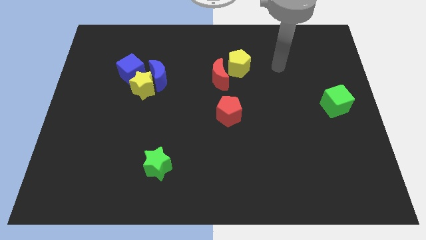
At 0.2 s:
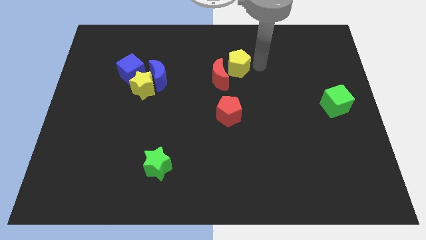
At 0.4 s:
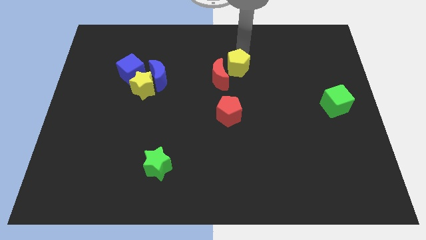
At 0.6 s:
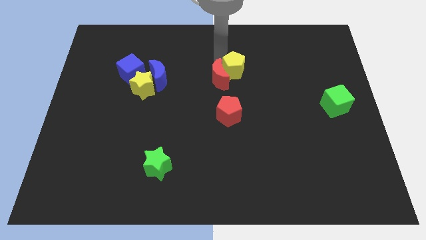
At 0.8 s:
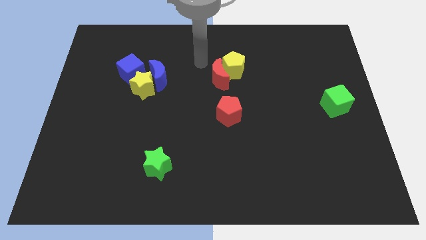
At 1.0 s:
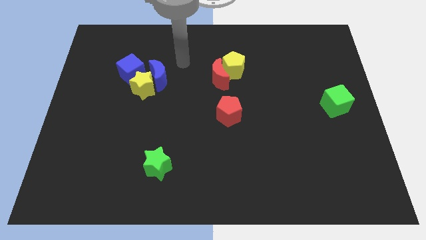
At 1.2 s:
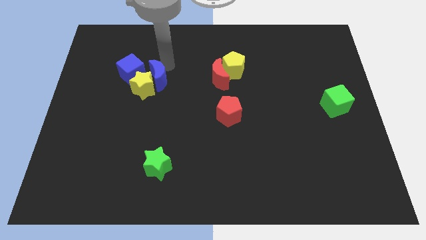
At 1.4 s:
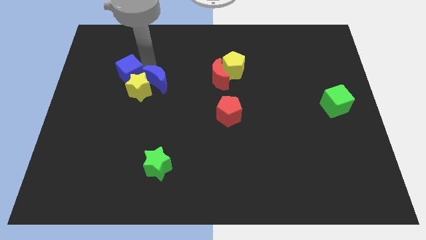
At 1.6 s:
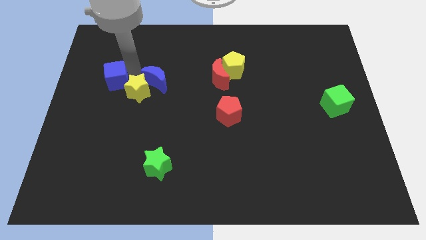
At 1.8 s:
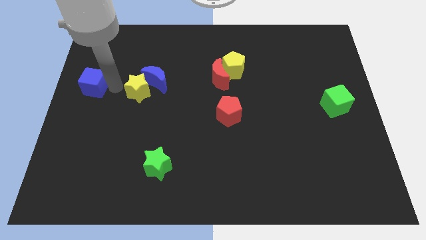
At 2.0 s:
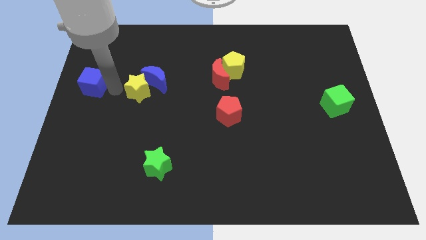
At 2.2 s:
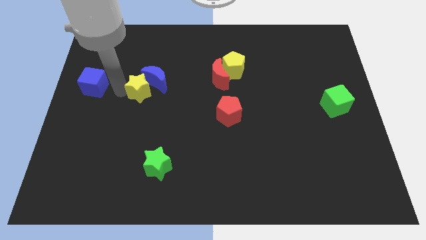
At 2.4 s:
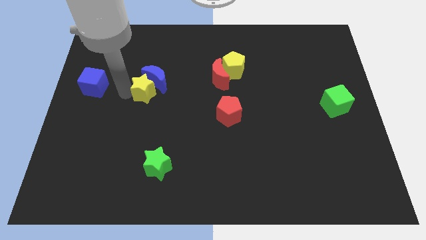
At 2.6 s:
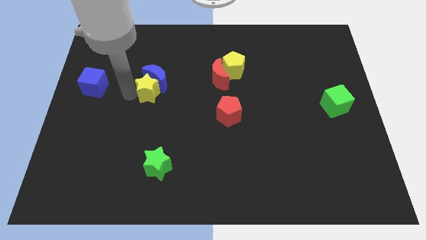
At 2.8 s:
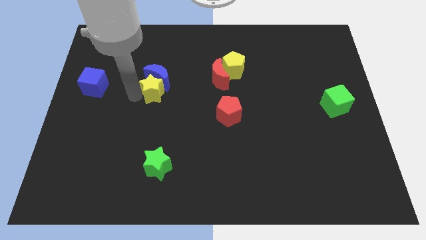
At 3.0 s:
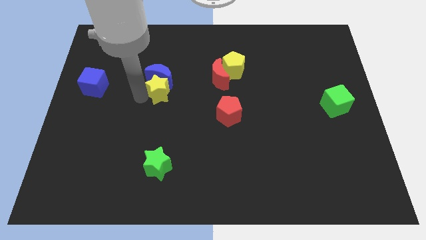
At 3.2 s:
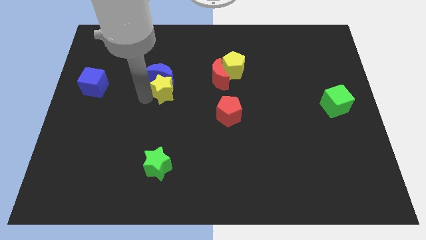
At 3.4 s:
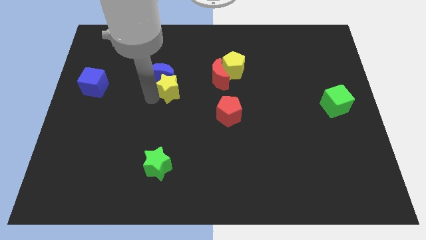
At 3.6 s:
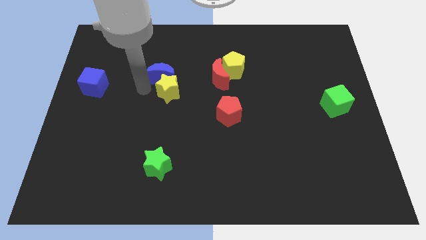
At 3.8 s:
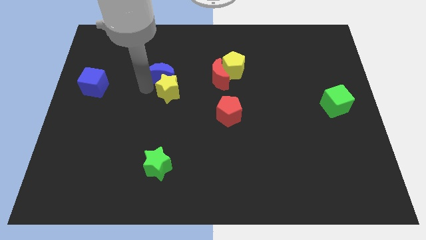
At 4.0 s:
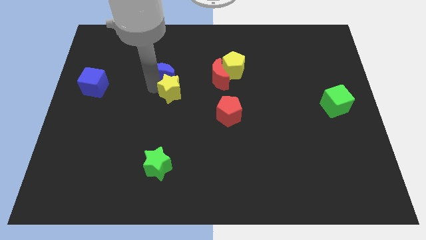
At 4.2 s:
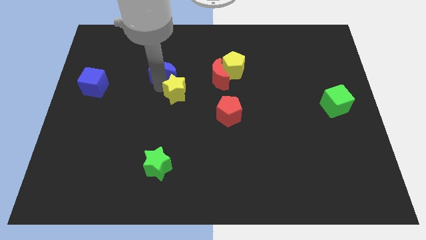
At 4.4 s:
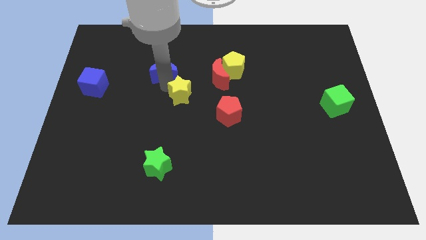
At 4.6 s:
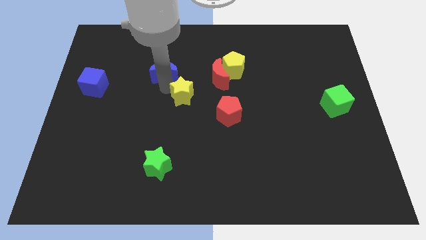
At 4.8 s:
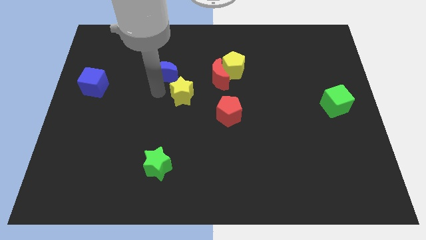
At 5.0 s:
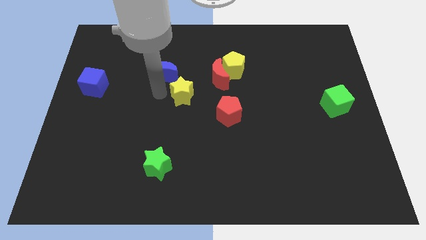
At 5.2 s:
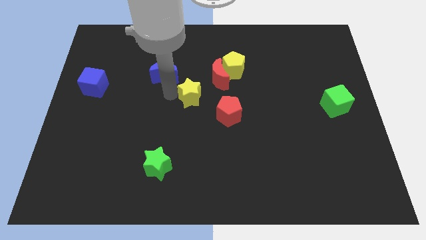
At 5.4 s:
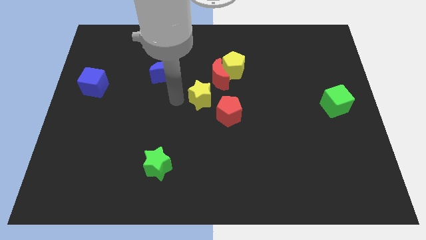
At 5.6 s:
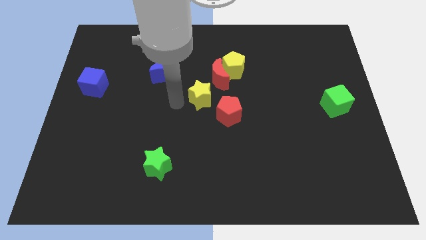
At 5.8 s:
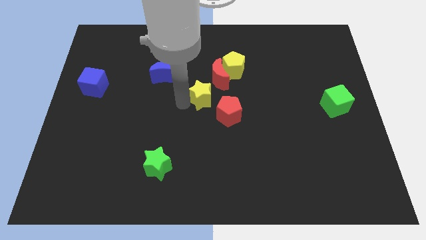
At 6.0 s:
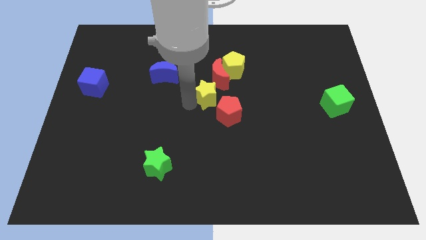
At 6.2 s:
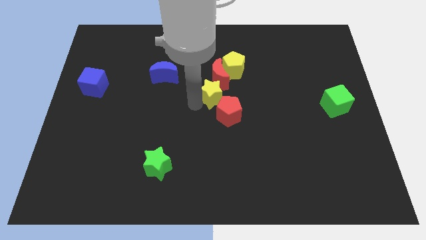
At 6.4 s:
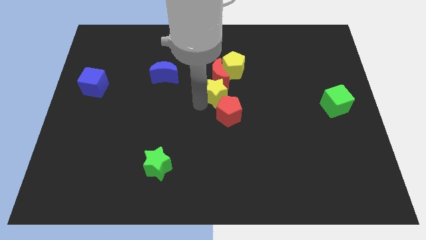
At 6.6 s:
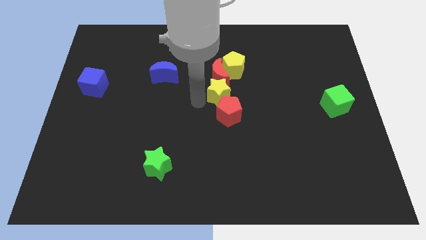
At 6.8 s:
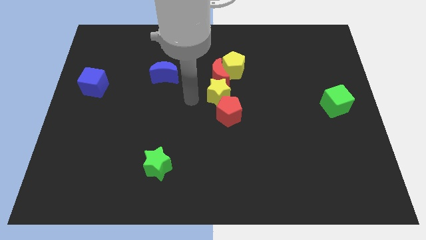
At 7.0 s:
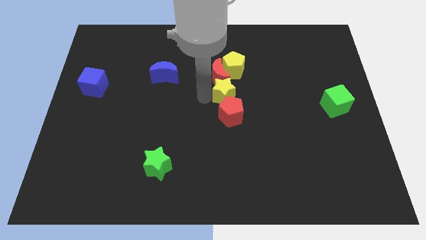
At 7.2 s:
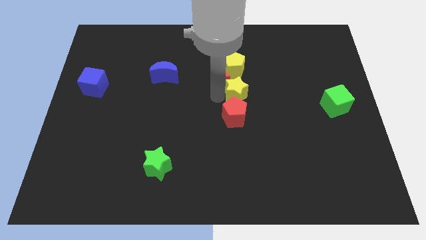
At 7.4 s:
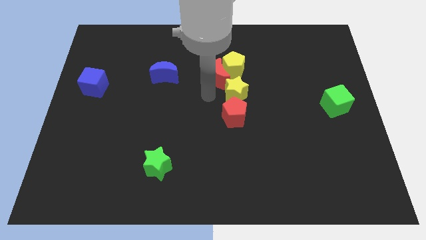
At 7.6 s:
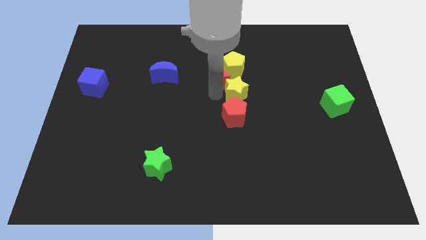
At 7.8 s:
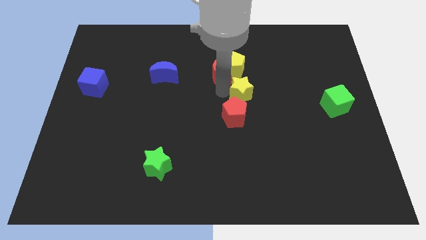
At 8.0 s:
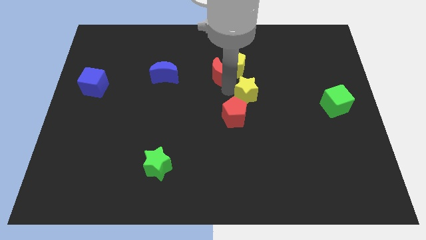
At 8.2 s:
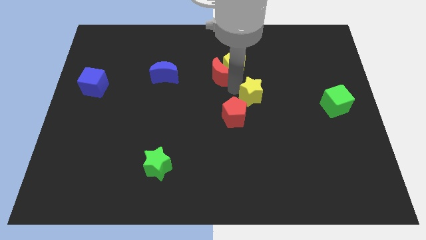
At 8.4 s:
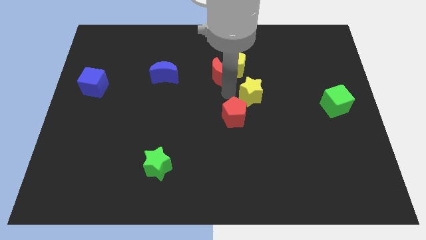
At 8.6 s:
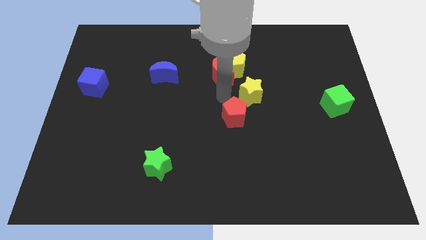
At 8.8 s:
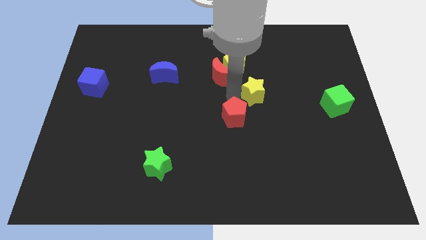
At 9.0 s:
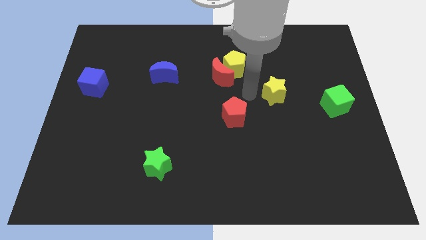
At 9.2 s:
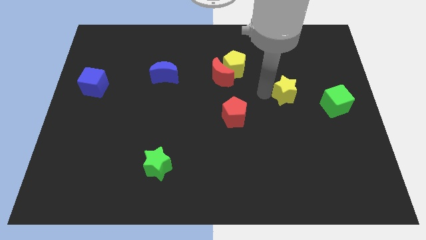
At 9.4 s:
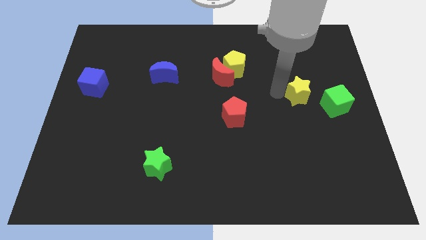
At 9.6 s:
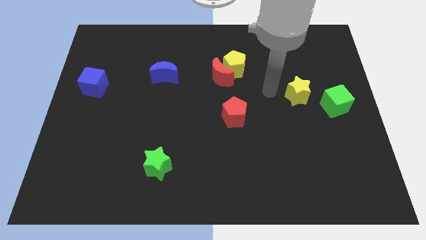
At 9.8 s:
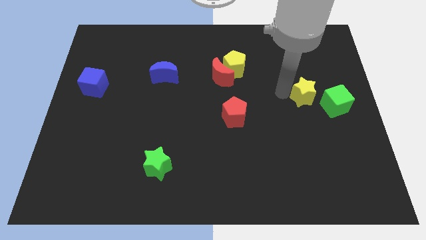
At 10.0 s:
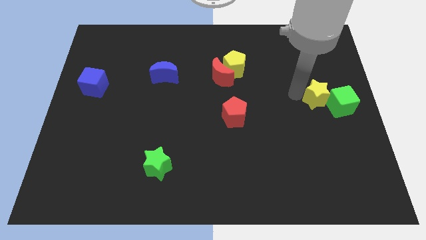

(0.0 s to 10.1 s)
push the yellow star to the green cube

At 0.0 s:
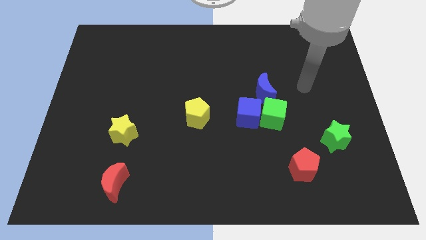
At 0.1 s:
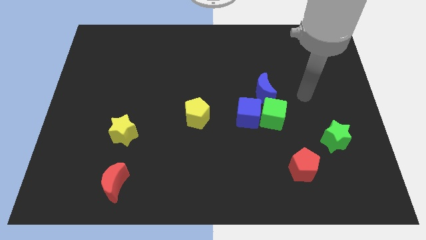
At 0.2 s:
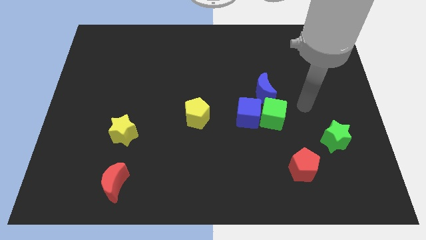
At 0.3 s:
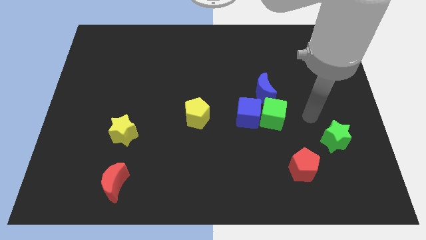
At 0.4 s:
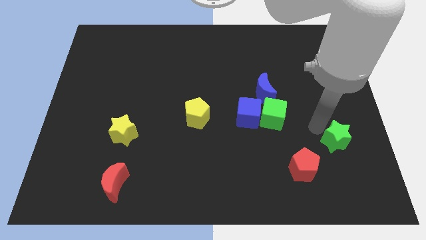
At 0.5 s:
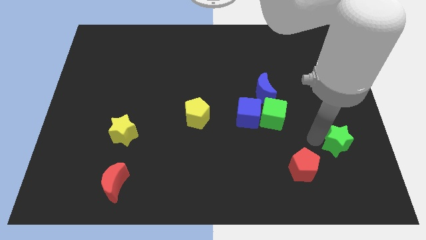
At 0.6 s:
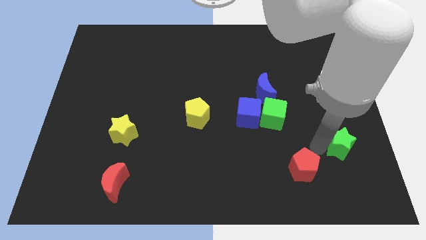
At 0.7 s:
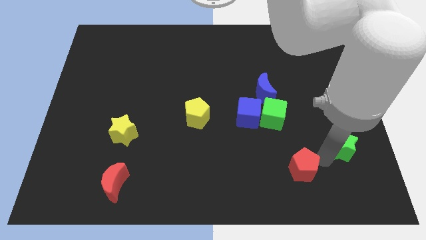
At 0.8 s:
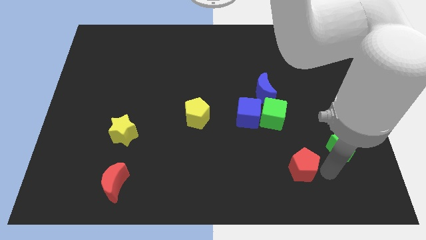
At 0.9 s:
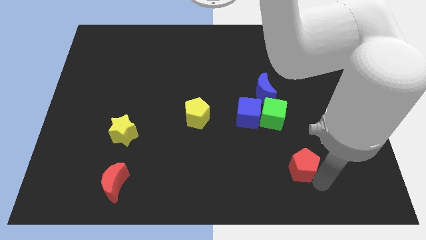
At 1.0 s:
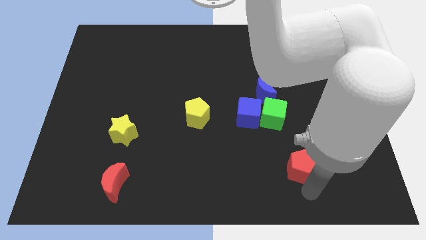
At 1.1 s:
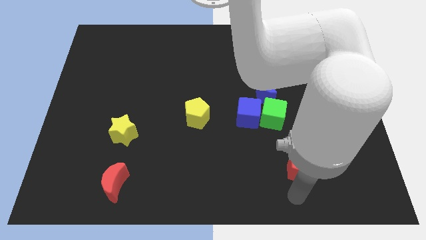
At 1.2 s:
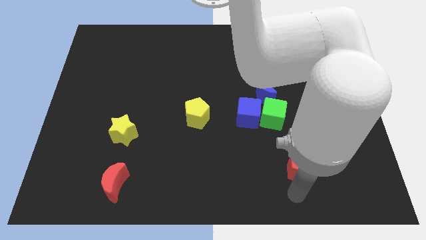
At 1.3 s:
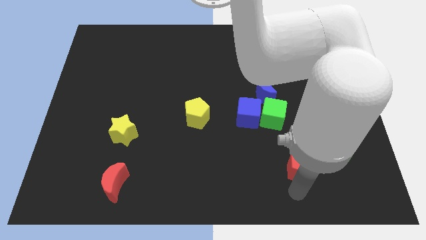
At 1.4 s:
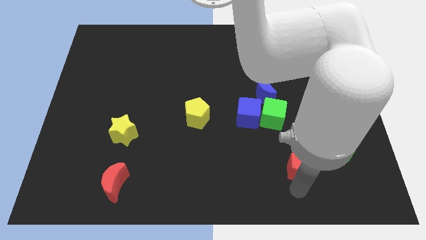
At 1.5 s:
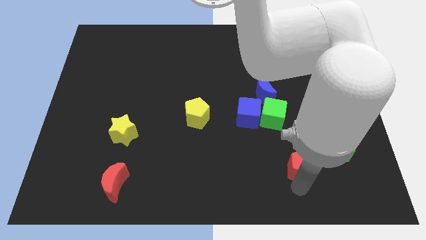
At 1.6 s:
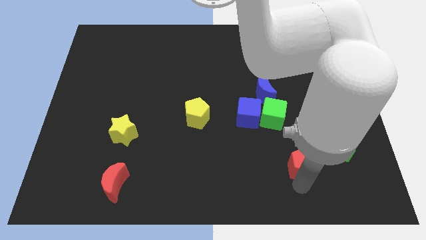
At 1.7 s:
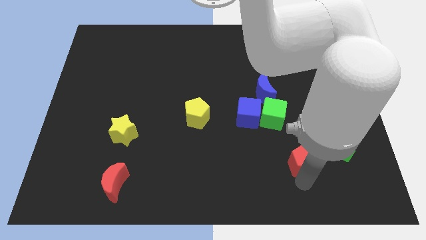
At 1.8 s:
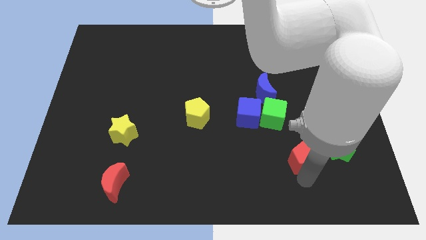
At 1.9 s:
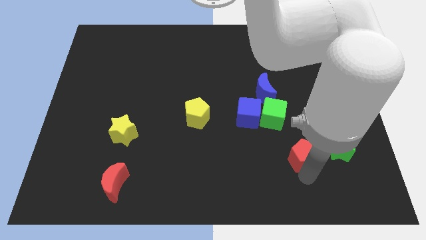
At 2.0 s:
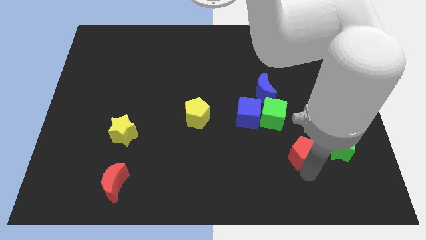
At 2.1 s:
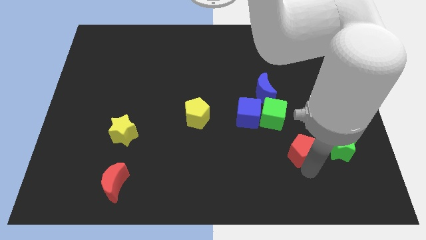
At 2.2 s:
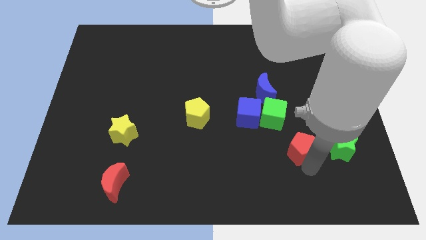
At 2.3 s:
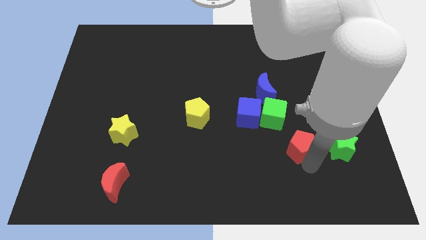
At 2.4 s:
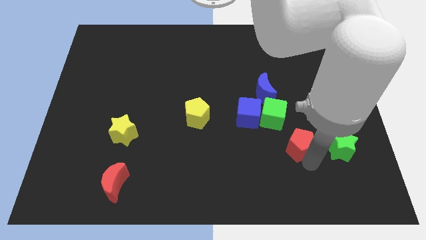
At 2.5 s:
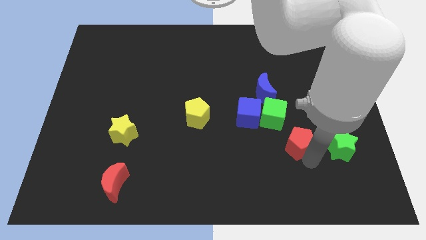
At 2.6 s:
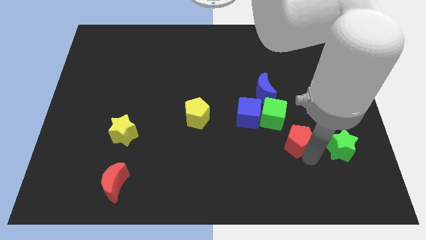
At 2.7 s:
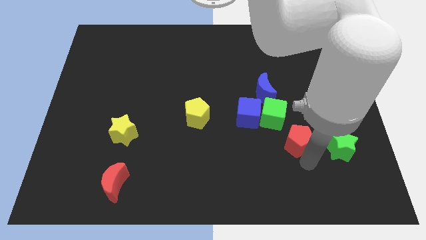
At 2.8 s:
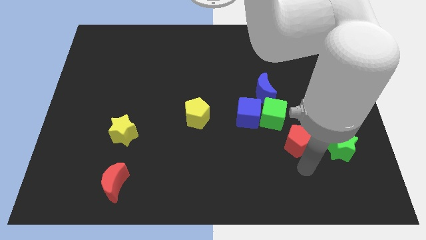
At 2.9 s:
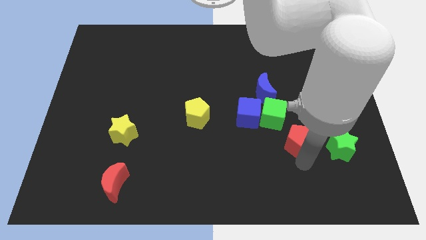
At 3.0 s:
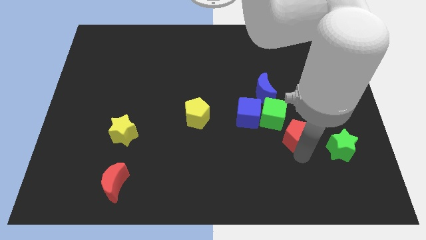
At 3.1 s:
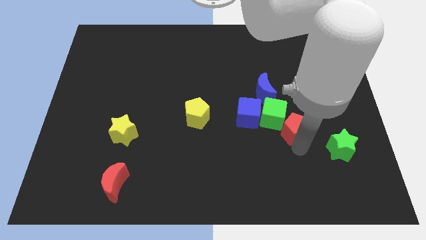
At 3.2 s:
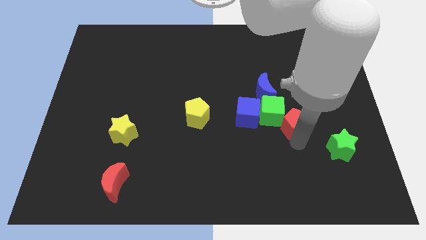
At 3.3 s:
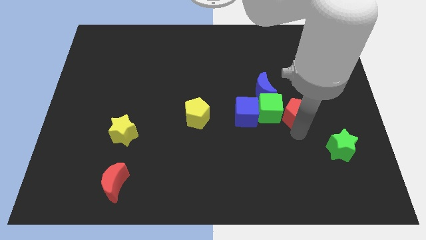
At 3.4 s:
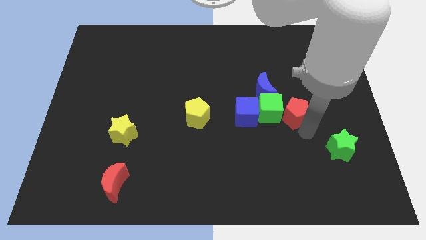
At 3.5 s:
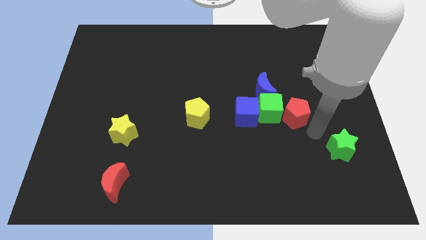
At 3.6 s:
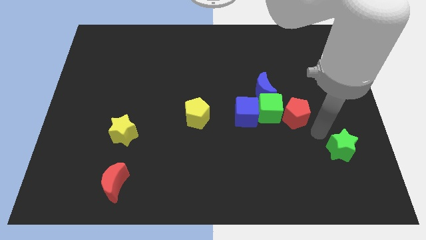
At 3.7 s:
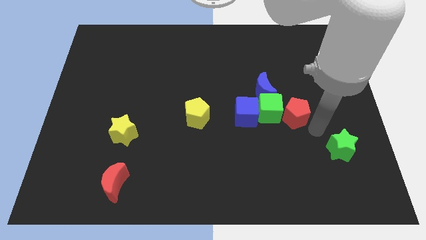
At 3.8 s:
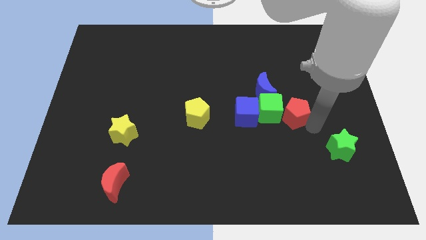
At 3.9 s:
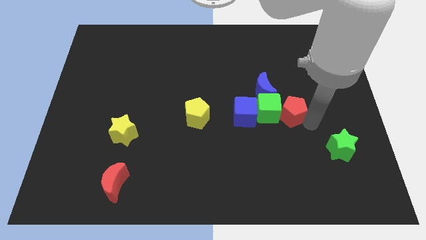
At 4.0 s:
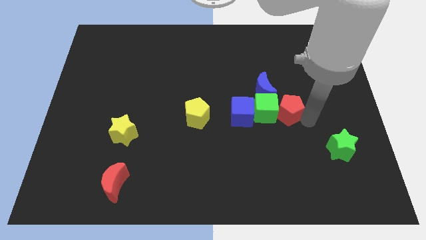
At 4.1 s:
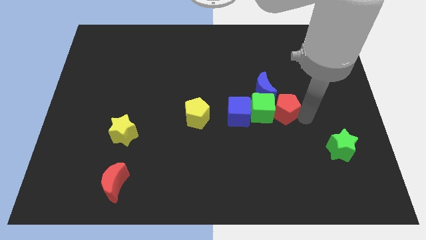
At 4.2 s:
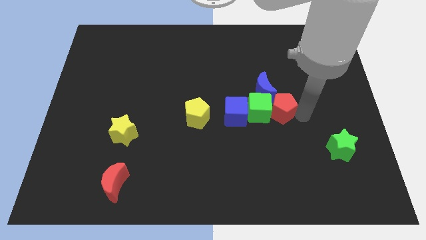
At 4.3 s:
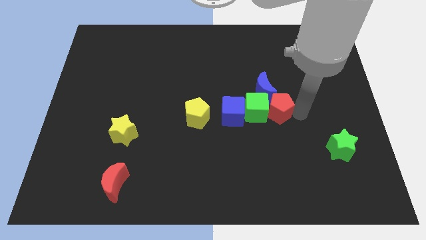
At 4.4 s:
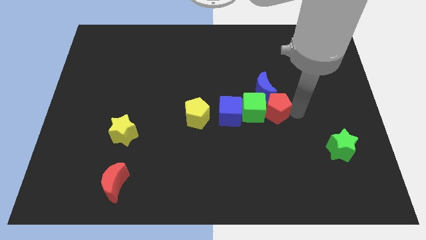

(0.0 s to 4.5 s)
slide the red pentagon next to the blue moon
